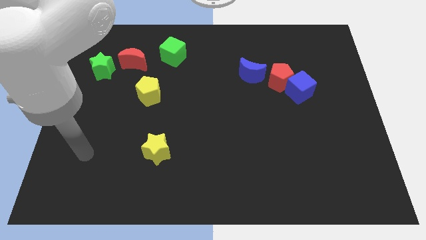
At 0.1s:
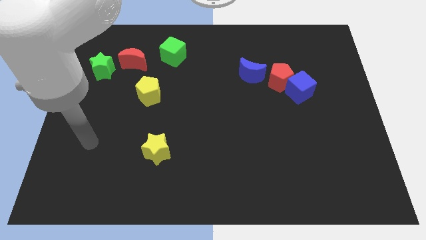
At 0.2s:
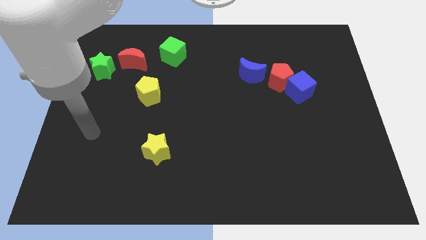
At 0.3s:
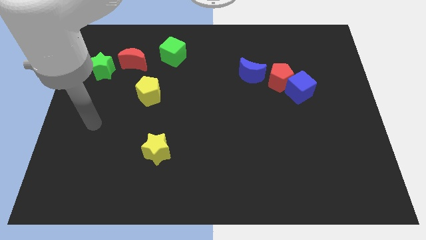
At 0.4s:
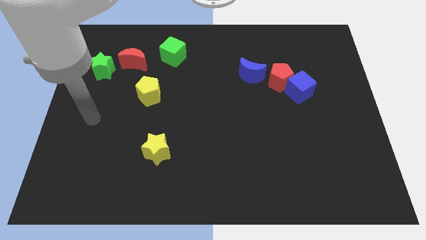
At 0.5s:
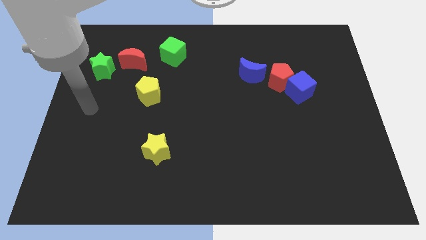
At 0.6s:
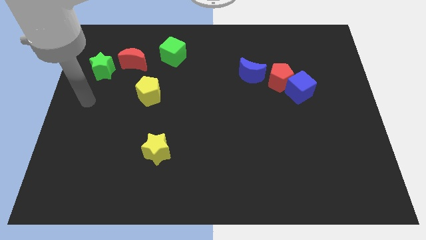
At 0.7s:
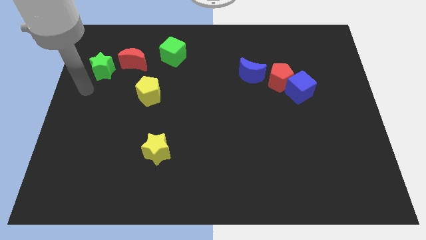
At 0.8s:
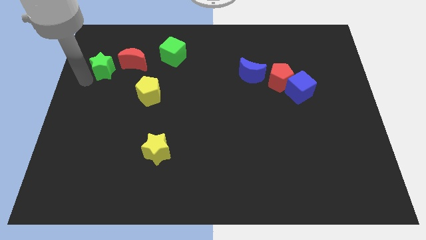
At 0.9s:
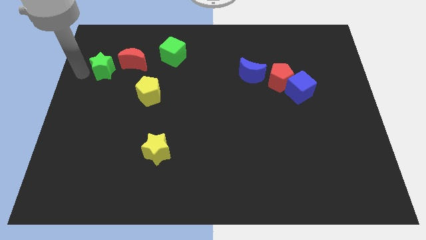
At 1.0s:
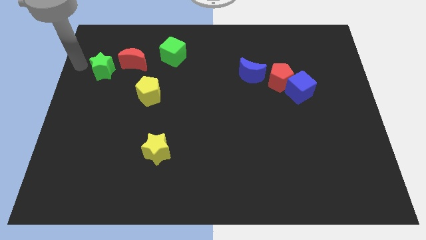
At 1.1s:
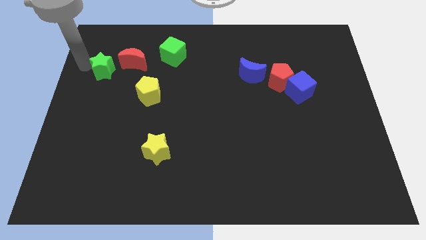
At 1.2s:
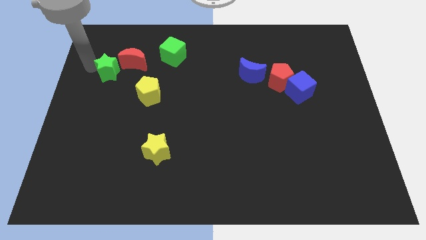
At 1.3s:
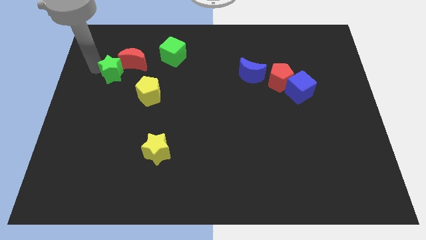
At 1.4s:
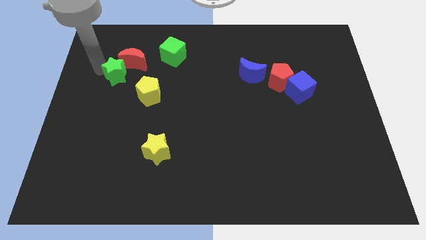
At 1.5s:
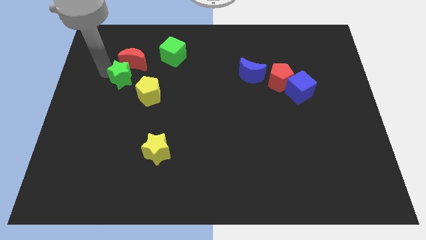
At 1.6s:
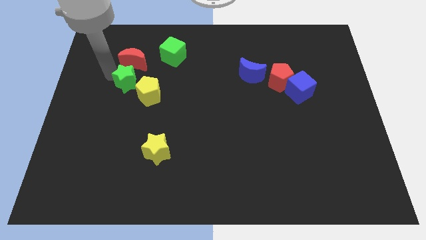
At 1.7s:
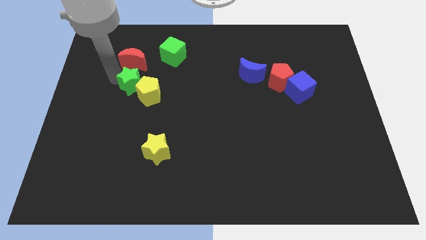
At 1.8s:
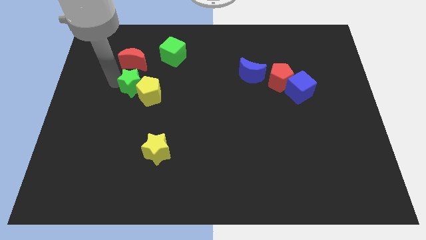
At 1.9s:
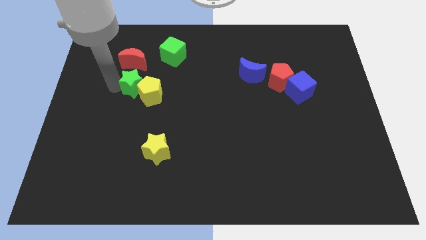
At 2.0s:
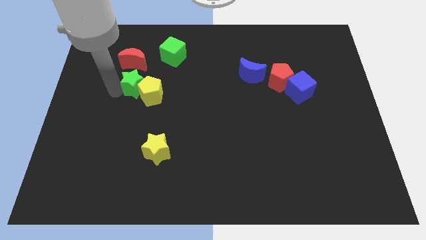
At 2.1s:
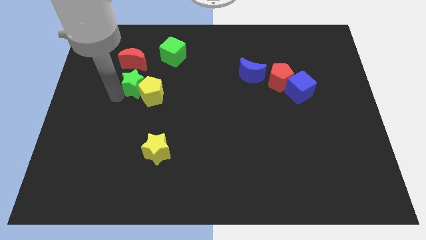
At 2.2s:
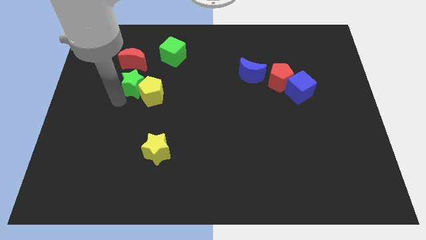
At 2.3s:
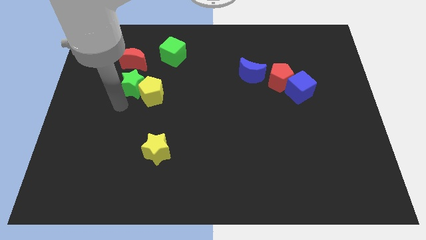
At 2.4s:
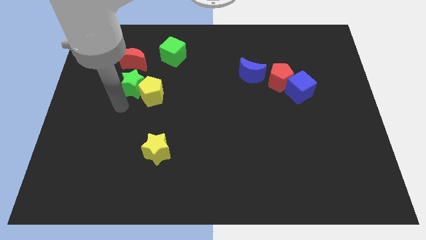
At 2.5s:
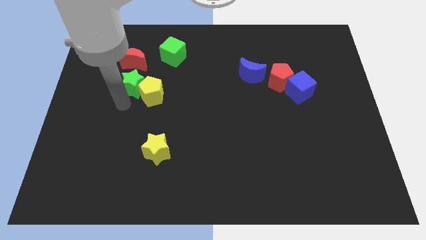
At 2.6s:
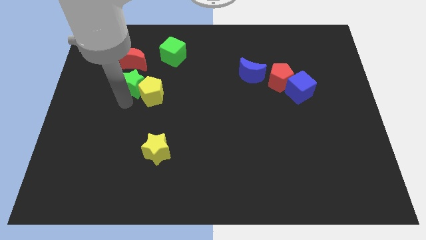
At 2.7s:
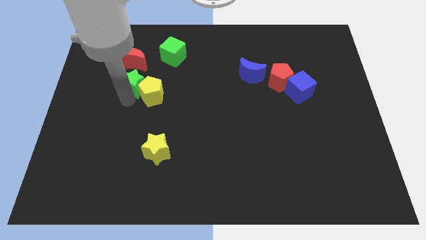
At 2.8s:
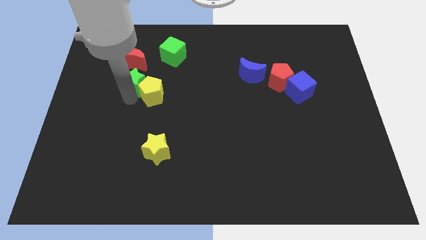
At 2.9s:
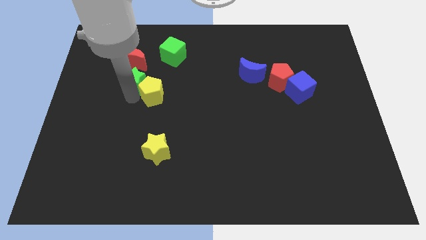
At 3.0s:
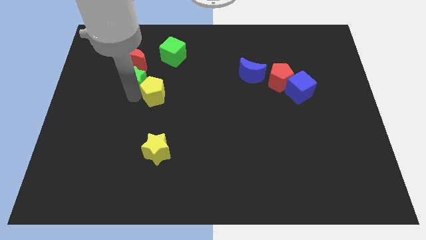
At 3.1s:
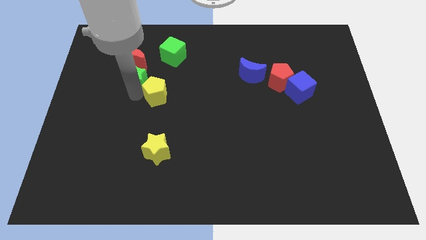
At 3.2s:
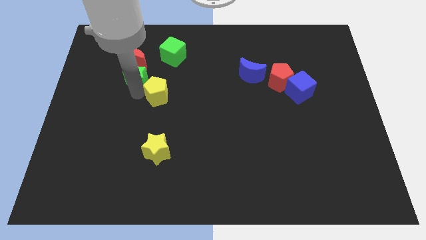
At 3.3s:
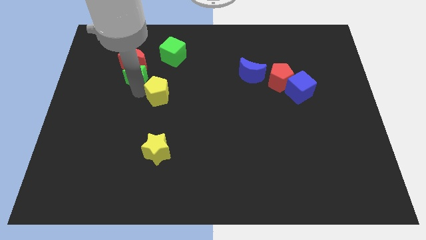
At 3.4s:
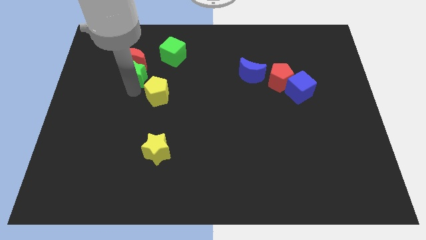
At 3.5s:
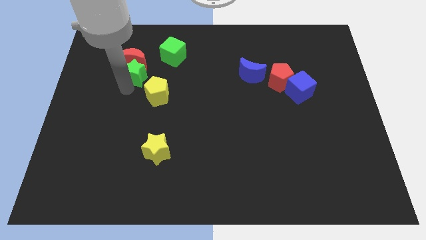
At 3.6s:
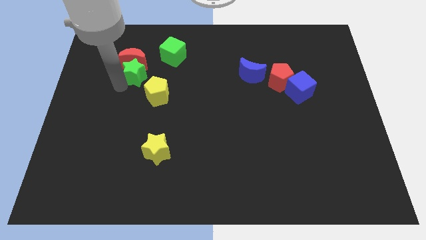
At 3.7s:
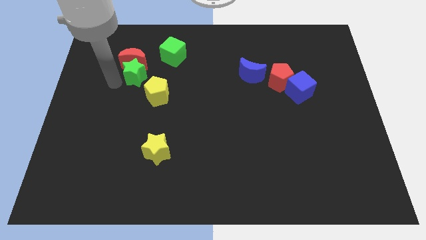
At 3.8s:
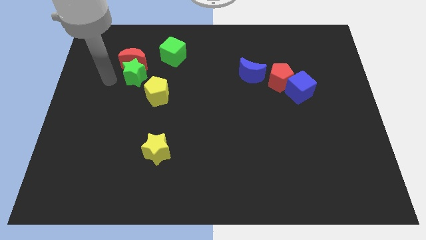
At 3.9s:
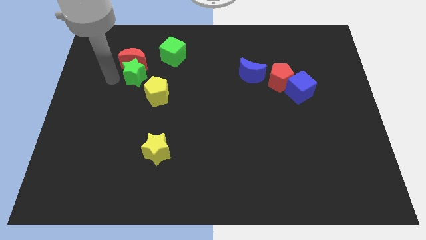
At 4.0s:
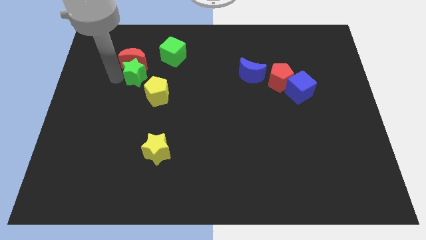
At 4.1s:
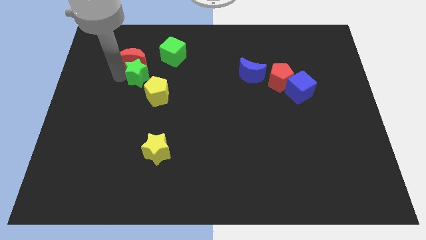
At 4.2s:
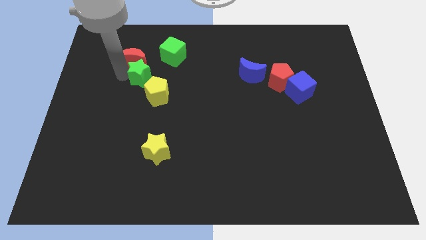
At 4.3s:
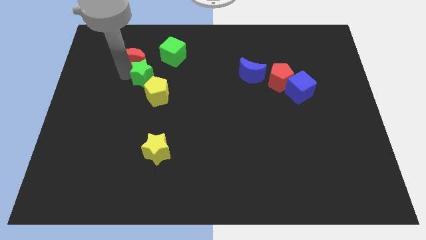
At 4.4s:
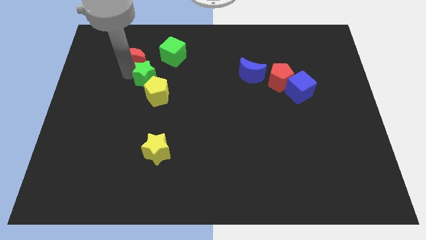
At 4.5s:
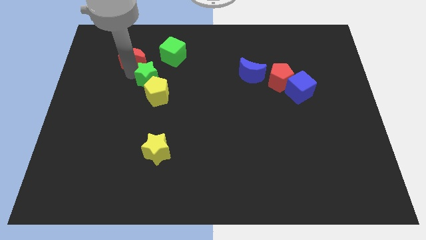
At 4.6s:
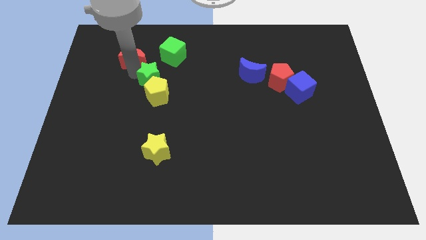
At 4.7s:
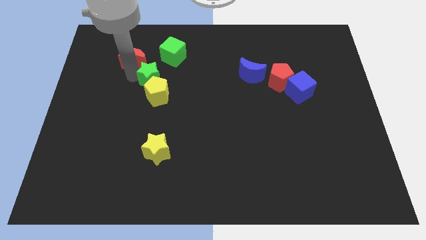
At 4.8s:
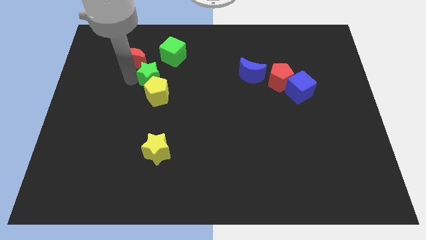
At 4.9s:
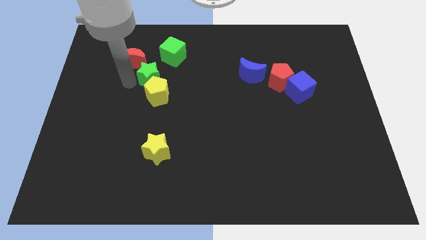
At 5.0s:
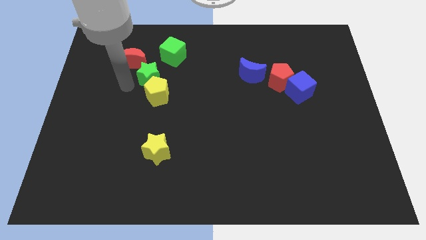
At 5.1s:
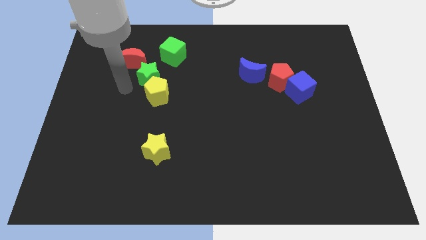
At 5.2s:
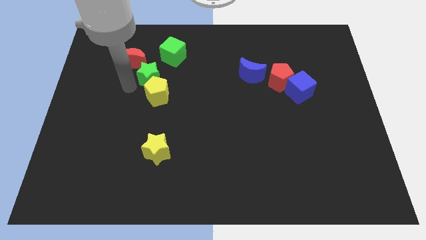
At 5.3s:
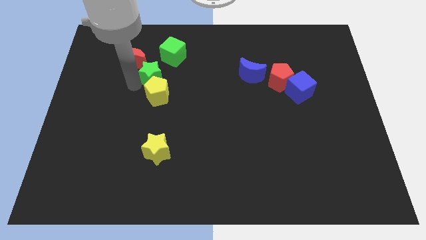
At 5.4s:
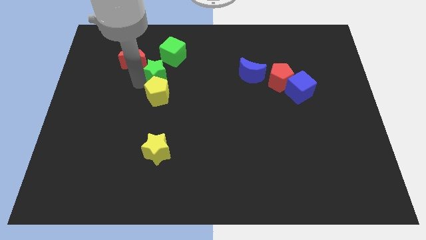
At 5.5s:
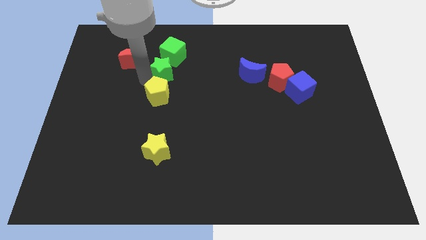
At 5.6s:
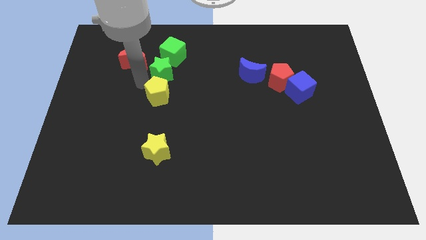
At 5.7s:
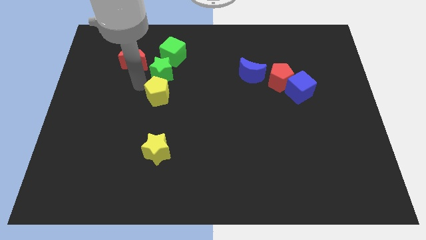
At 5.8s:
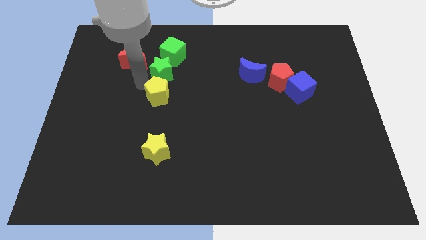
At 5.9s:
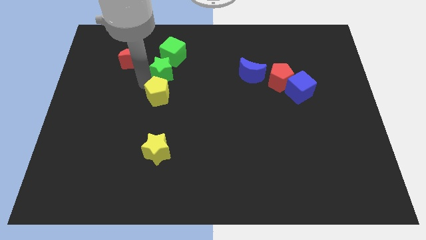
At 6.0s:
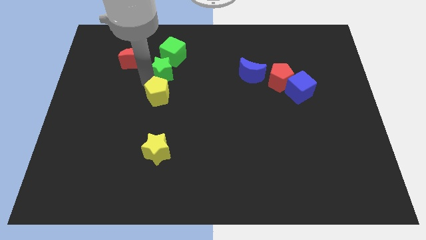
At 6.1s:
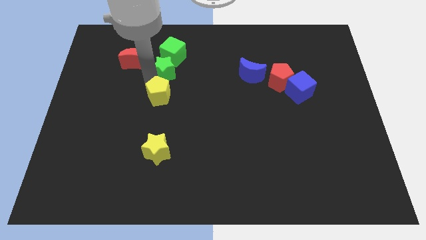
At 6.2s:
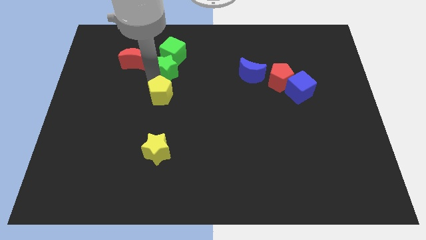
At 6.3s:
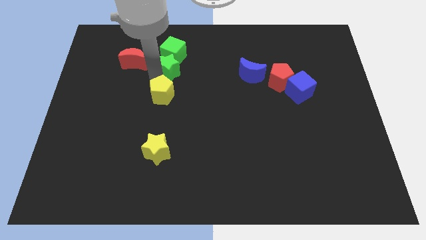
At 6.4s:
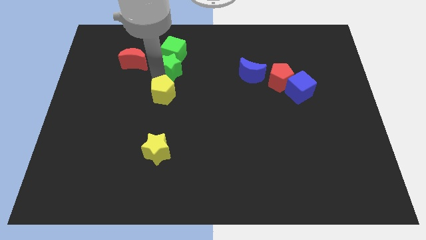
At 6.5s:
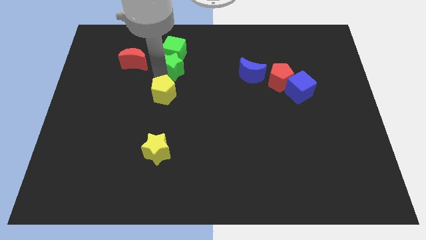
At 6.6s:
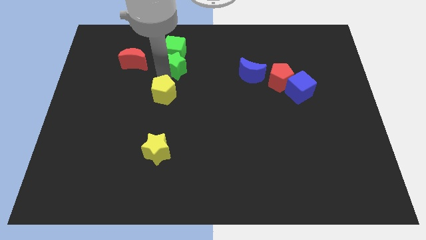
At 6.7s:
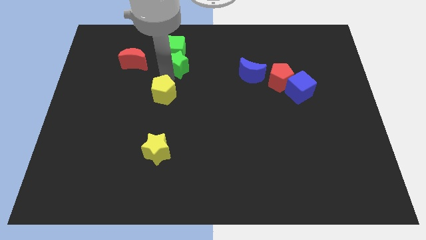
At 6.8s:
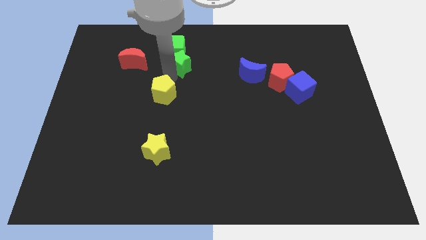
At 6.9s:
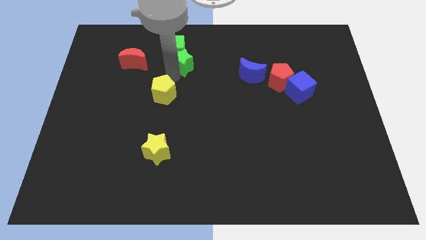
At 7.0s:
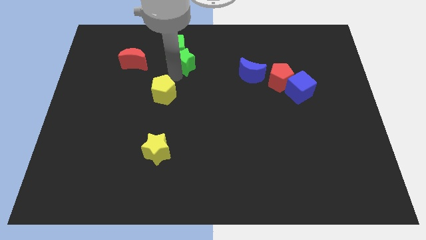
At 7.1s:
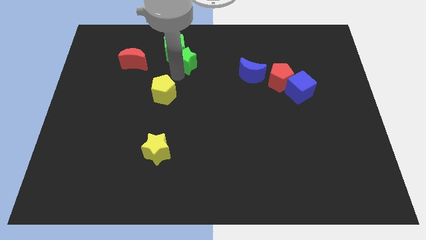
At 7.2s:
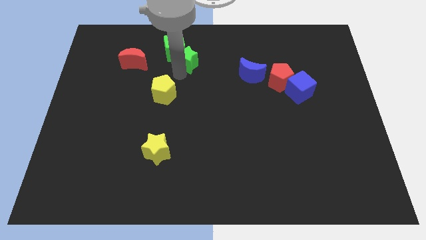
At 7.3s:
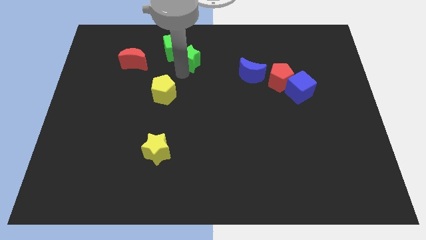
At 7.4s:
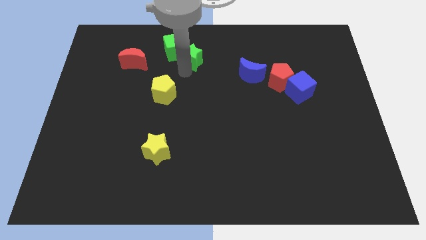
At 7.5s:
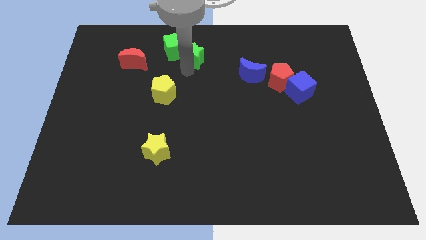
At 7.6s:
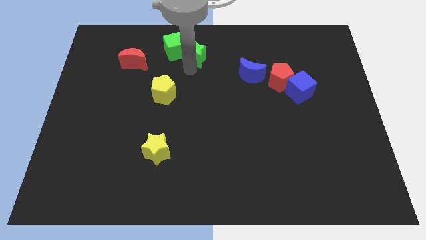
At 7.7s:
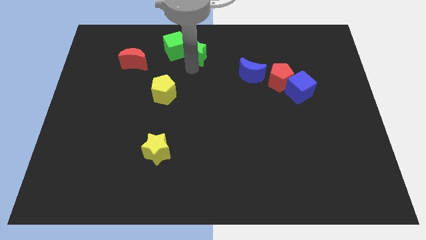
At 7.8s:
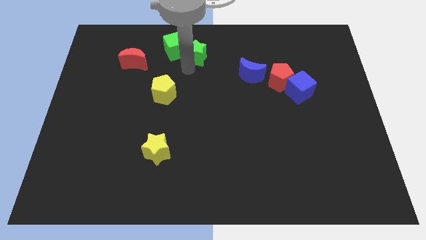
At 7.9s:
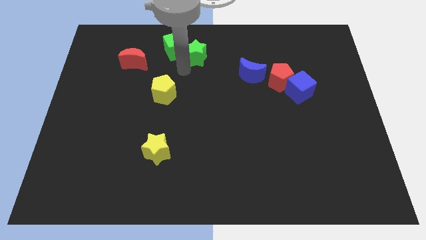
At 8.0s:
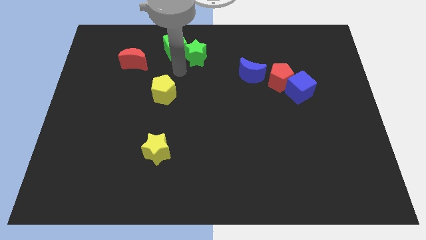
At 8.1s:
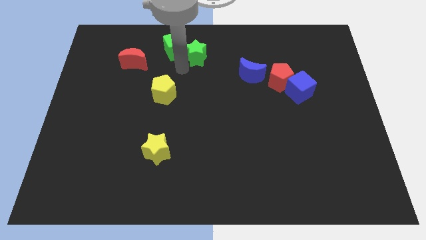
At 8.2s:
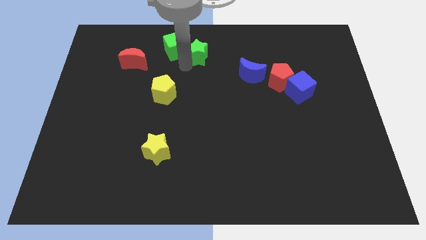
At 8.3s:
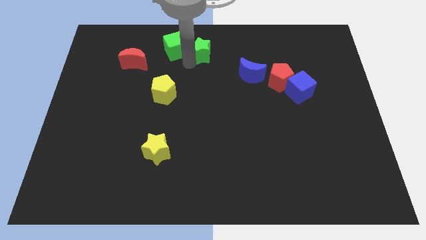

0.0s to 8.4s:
put the green star to the top side
